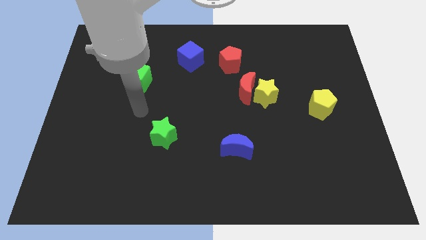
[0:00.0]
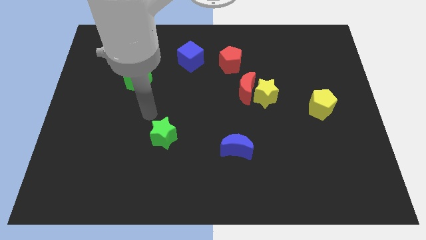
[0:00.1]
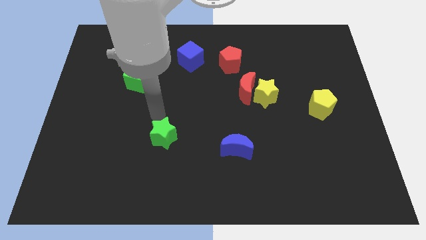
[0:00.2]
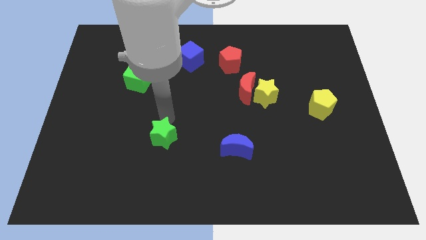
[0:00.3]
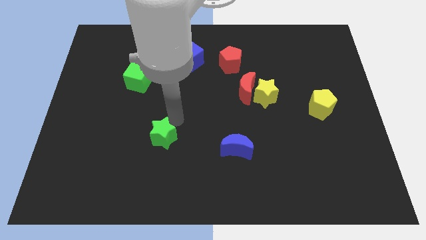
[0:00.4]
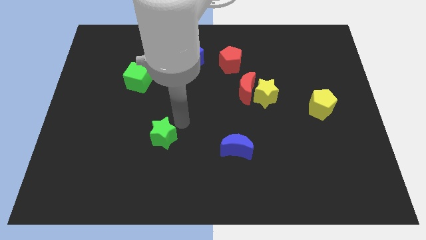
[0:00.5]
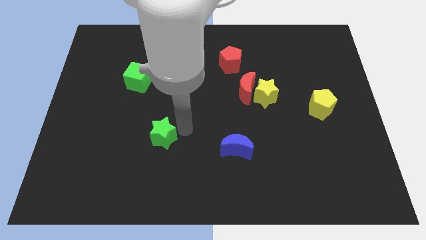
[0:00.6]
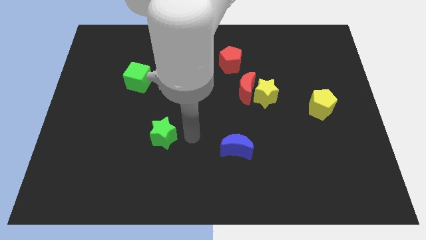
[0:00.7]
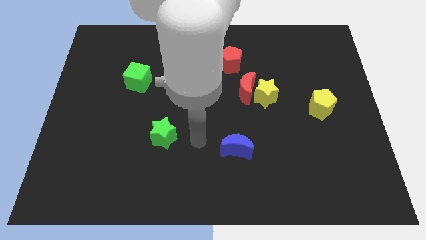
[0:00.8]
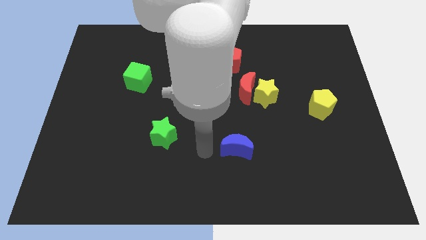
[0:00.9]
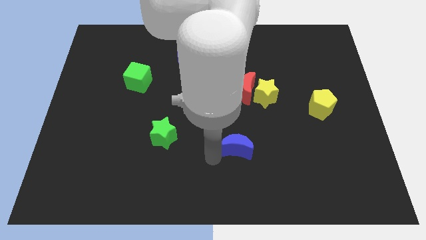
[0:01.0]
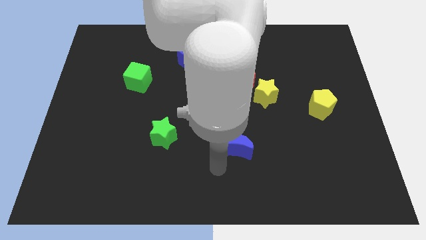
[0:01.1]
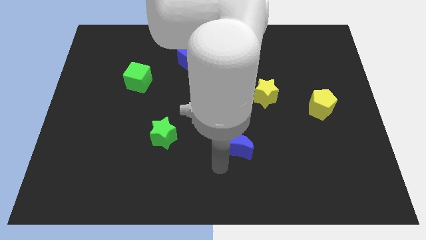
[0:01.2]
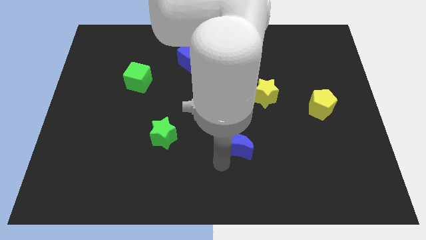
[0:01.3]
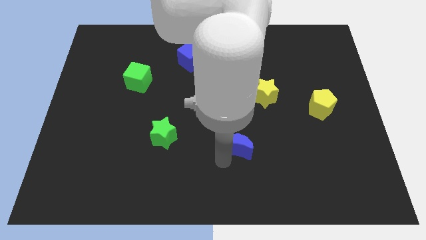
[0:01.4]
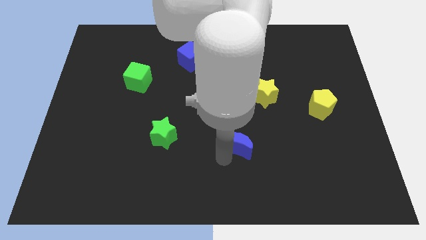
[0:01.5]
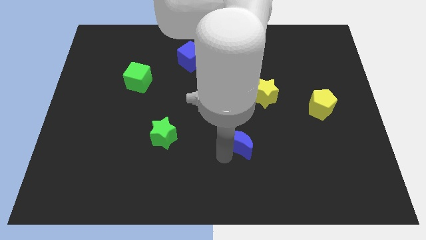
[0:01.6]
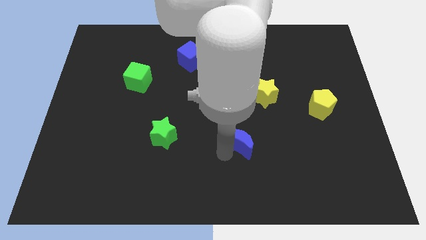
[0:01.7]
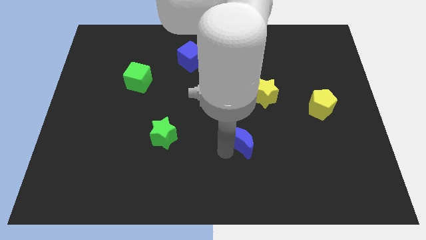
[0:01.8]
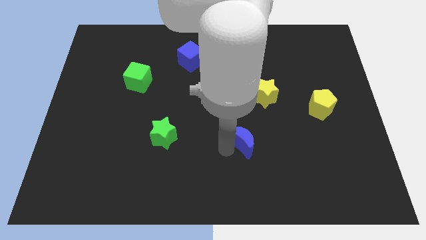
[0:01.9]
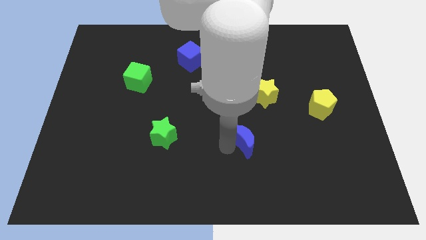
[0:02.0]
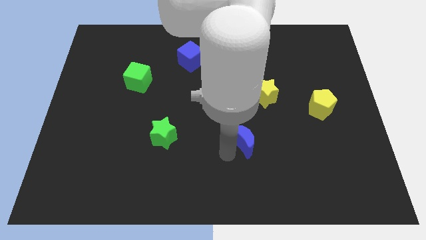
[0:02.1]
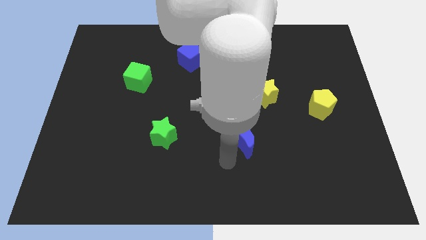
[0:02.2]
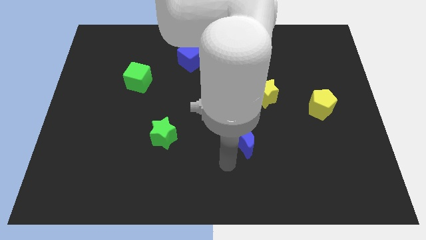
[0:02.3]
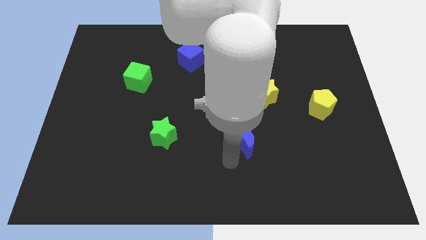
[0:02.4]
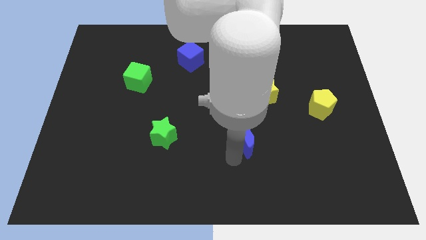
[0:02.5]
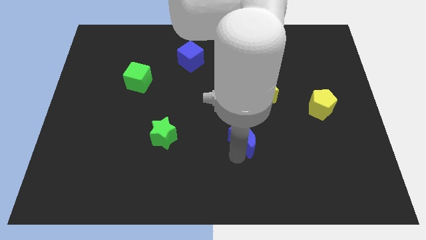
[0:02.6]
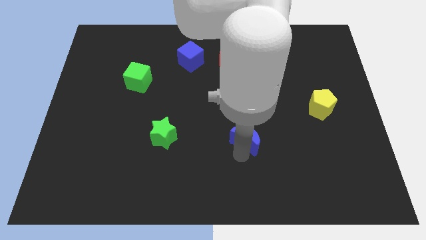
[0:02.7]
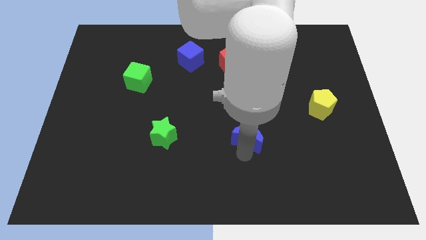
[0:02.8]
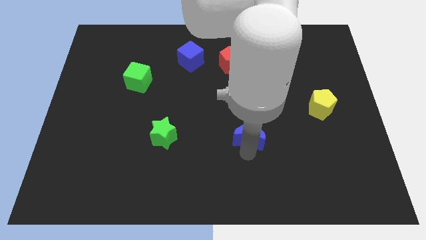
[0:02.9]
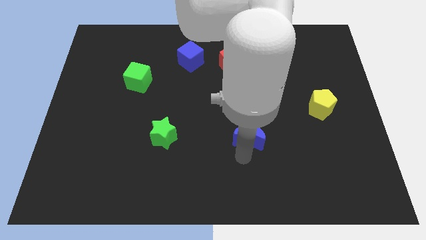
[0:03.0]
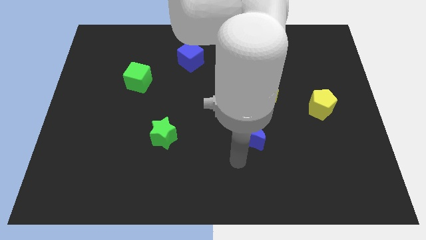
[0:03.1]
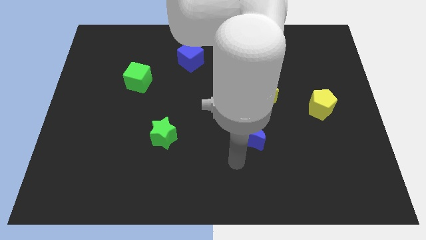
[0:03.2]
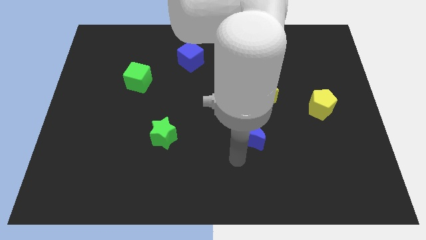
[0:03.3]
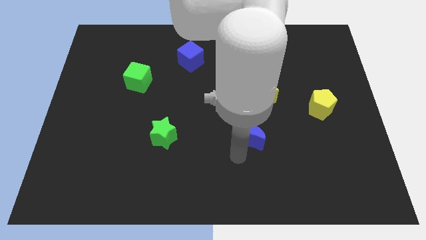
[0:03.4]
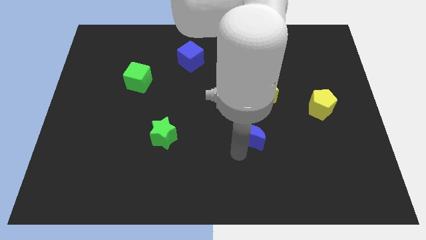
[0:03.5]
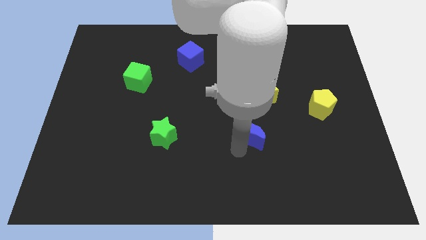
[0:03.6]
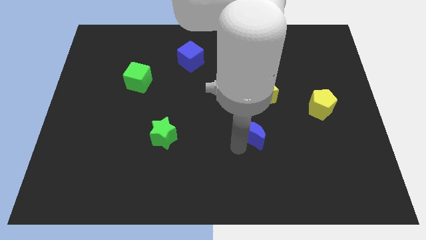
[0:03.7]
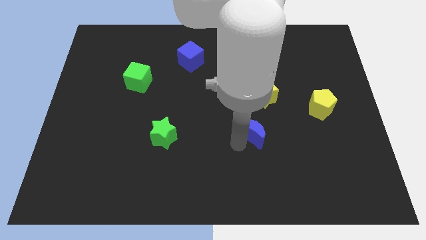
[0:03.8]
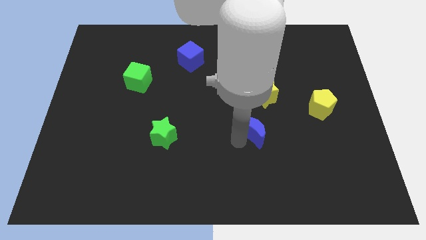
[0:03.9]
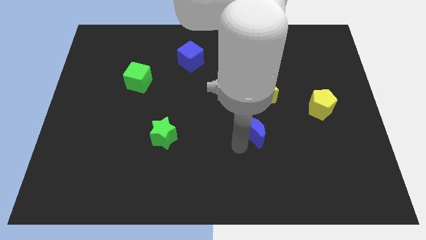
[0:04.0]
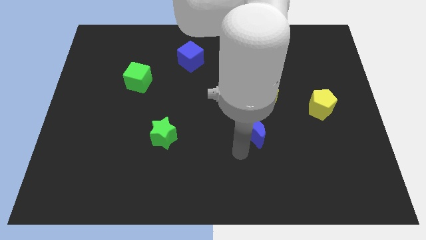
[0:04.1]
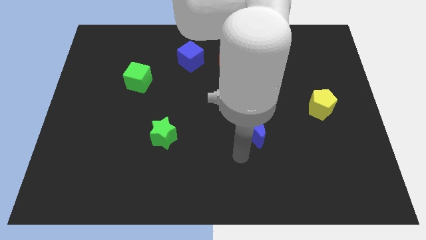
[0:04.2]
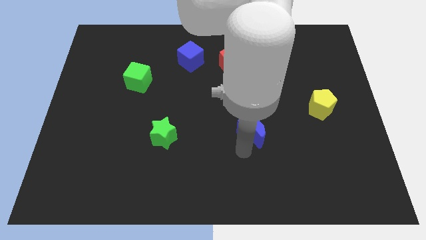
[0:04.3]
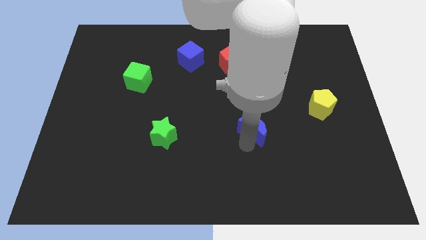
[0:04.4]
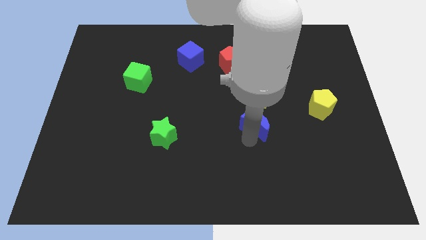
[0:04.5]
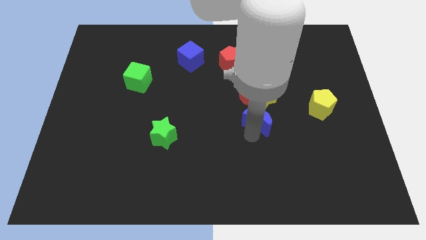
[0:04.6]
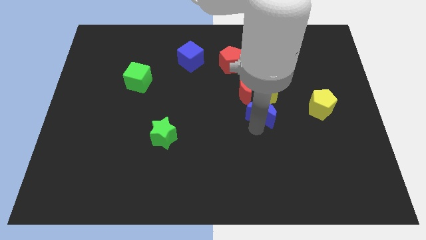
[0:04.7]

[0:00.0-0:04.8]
slide the blue moon close to the yellow star

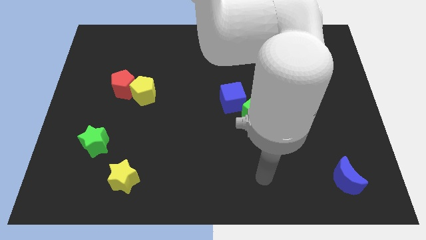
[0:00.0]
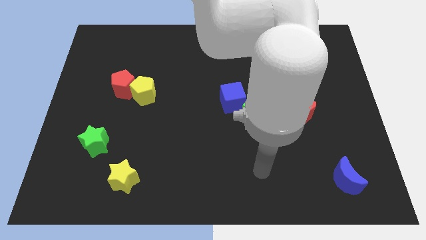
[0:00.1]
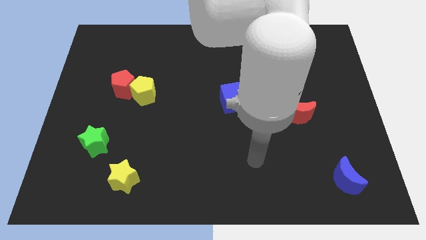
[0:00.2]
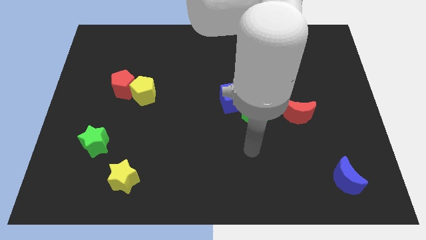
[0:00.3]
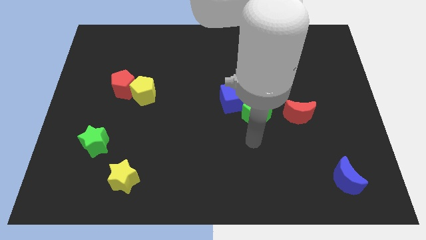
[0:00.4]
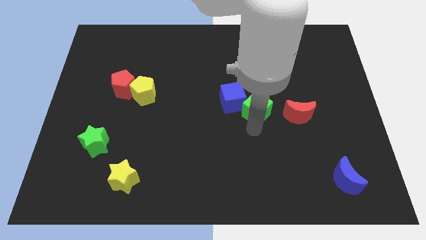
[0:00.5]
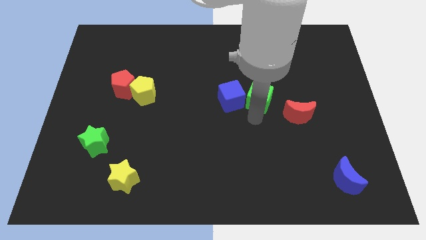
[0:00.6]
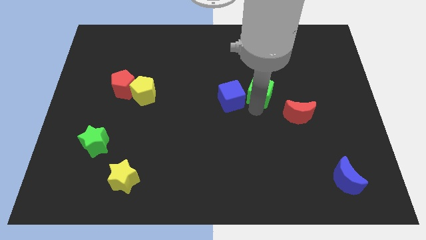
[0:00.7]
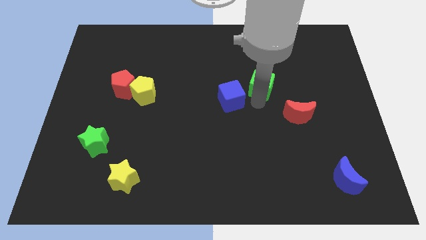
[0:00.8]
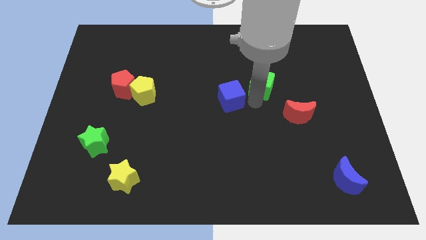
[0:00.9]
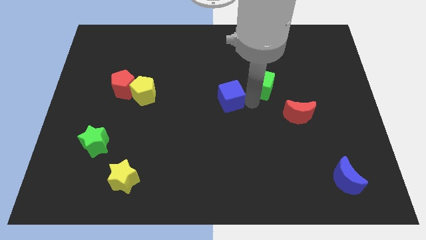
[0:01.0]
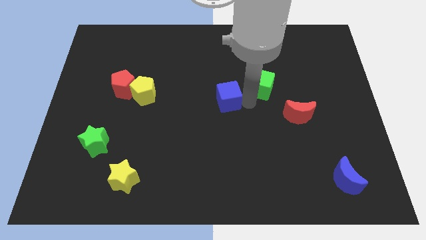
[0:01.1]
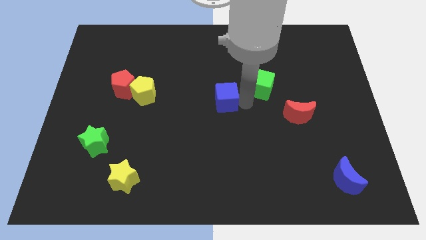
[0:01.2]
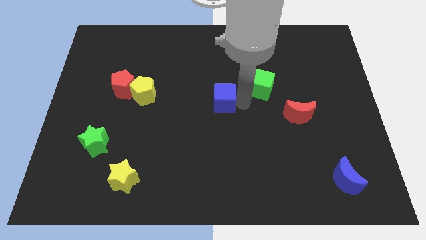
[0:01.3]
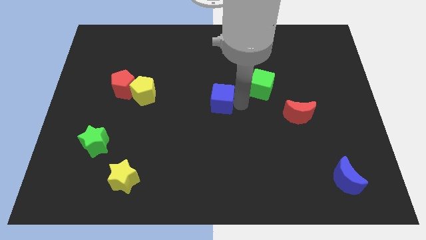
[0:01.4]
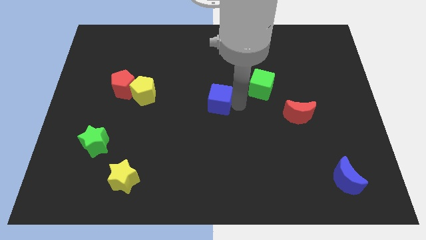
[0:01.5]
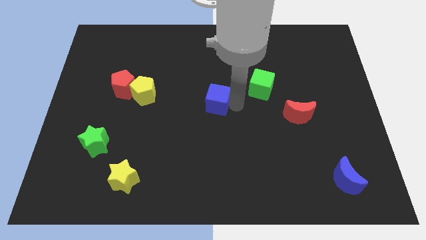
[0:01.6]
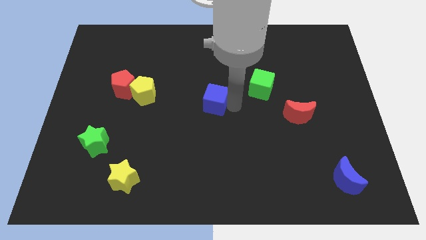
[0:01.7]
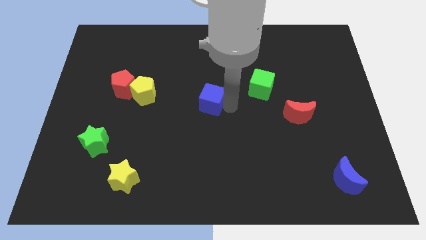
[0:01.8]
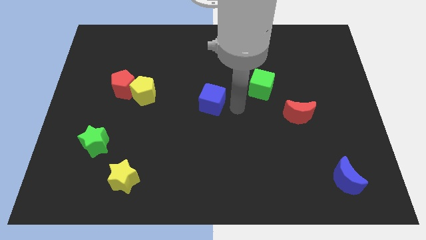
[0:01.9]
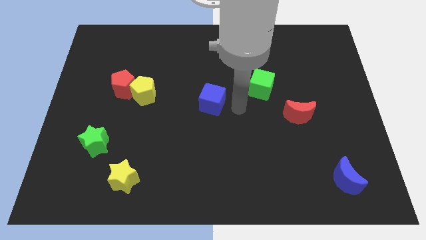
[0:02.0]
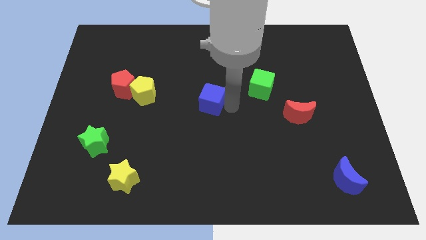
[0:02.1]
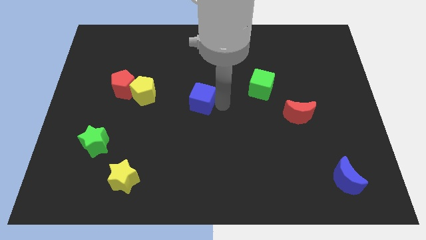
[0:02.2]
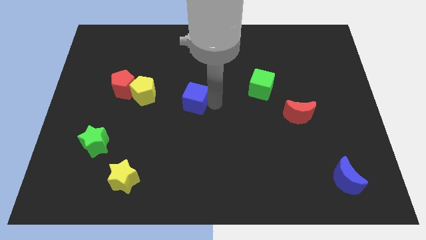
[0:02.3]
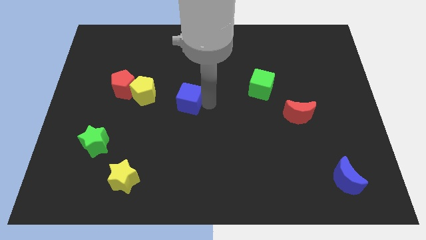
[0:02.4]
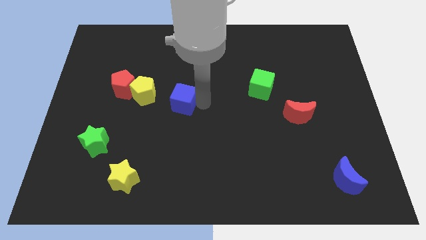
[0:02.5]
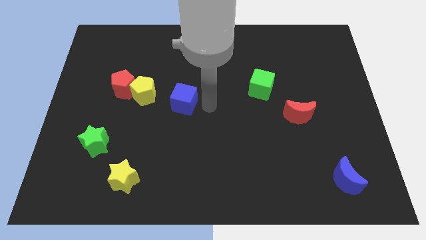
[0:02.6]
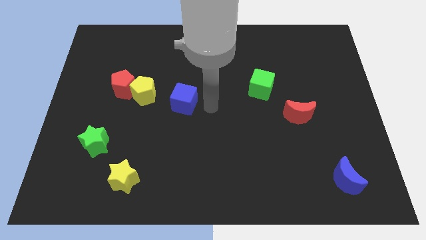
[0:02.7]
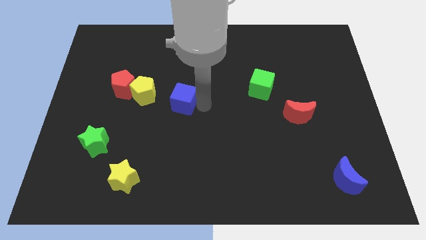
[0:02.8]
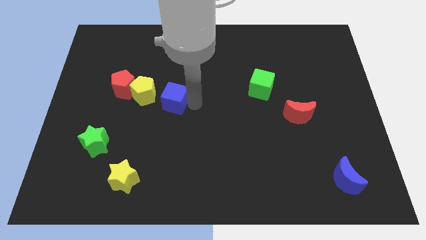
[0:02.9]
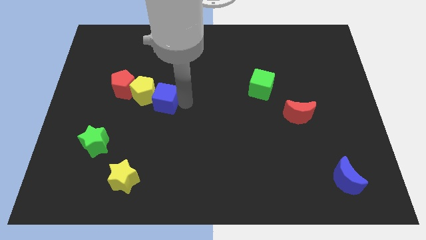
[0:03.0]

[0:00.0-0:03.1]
move the blue cube next to the yellow pentagon

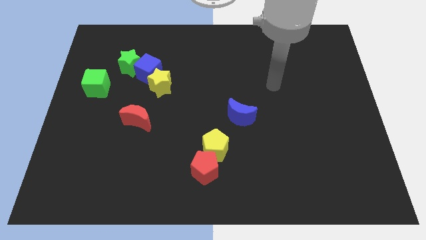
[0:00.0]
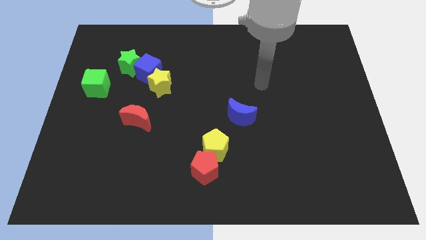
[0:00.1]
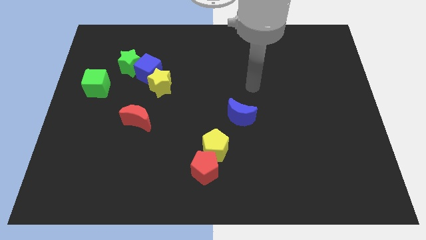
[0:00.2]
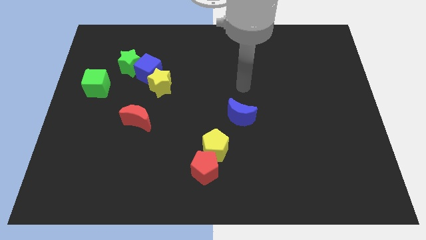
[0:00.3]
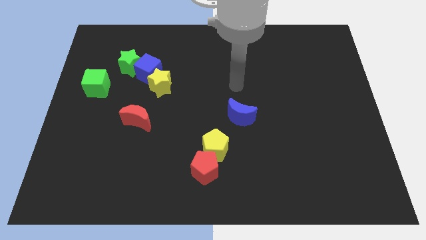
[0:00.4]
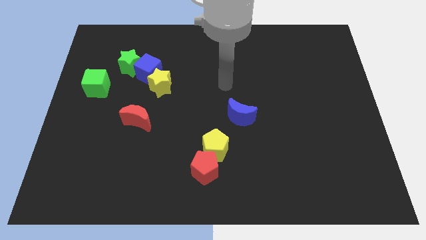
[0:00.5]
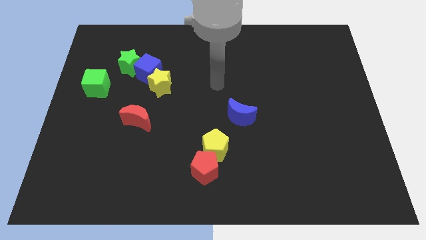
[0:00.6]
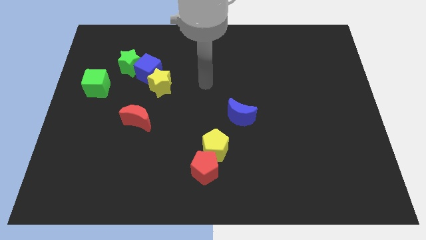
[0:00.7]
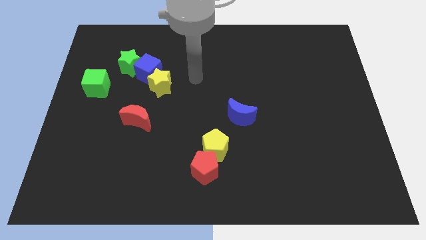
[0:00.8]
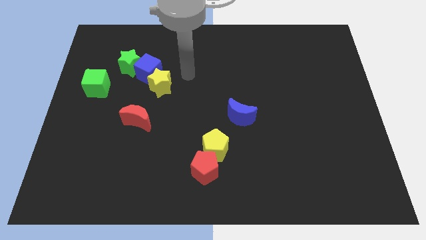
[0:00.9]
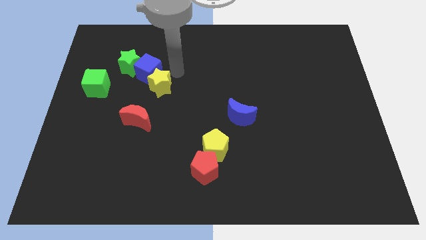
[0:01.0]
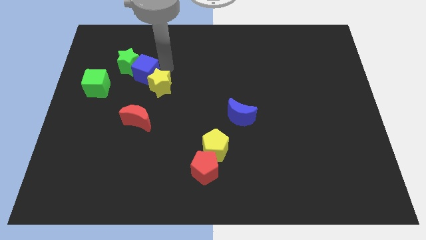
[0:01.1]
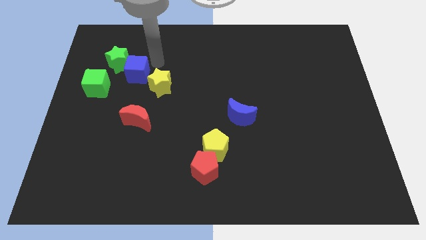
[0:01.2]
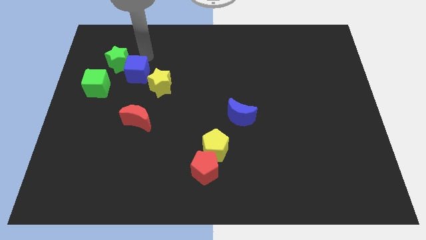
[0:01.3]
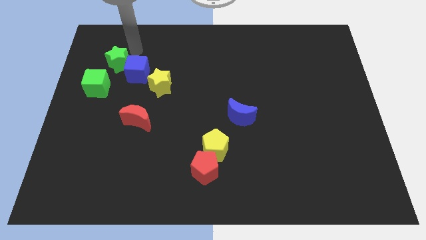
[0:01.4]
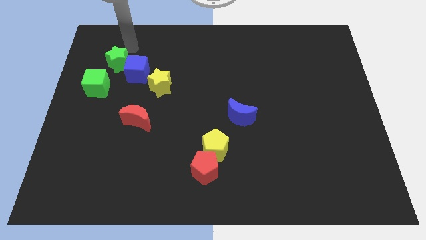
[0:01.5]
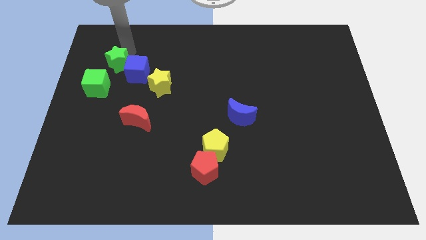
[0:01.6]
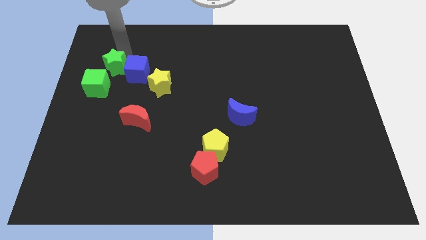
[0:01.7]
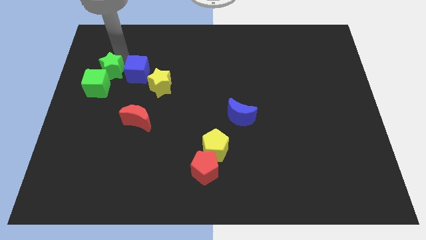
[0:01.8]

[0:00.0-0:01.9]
put the green star to the green cube
